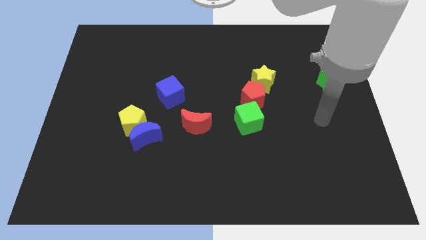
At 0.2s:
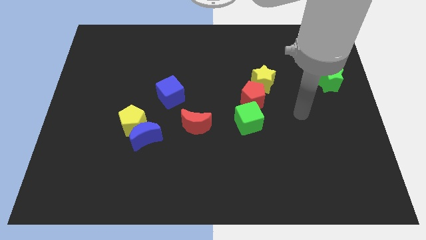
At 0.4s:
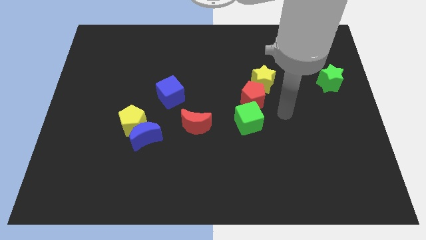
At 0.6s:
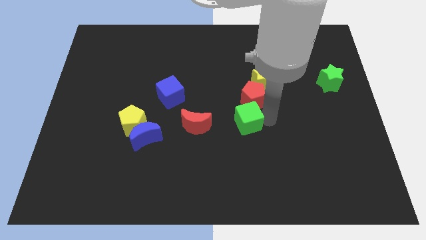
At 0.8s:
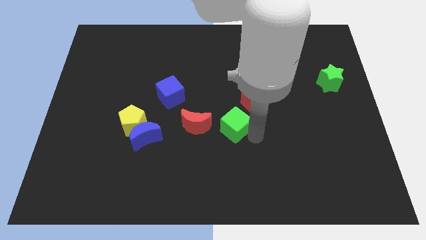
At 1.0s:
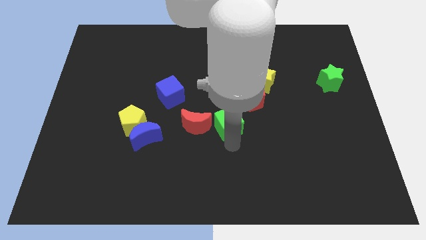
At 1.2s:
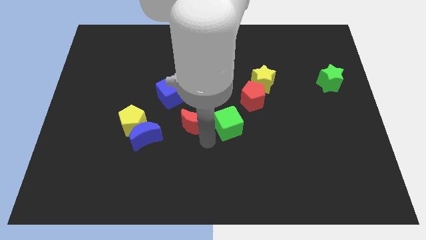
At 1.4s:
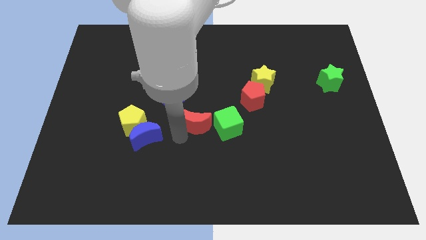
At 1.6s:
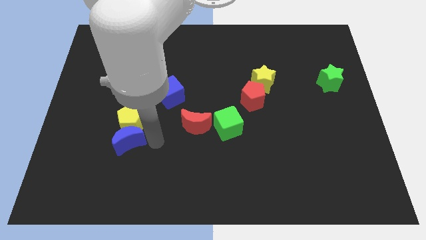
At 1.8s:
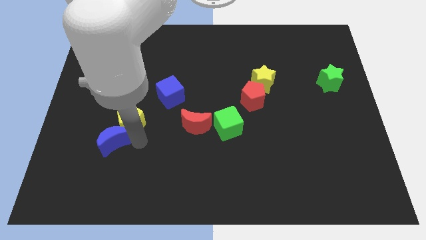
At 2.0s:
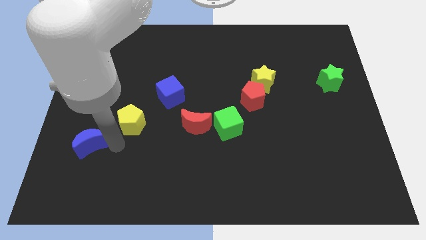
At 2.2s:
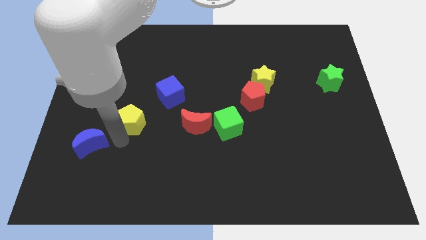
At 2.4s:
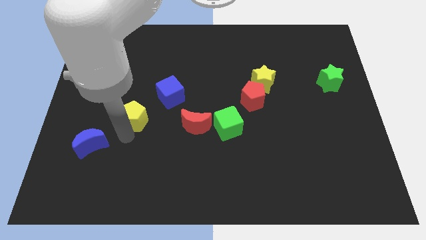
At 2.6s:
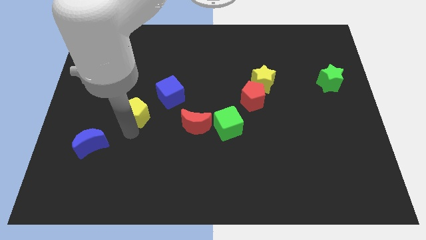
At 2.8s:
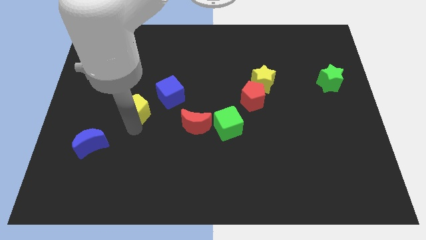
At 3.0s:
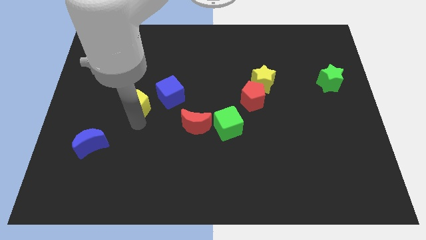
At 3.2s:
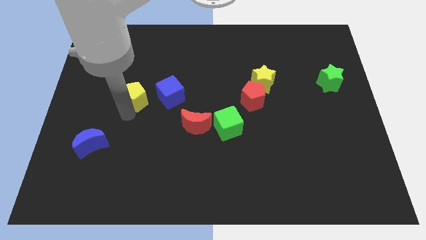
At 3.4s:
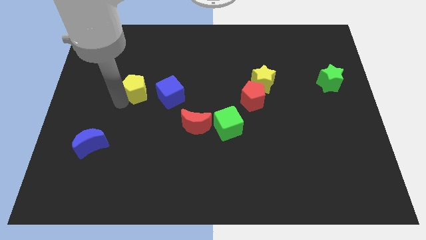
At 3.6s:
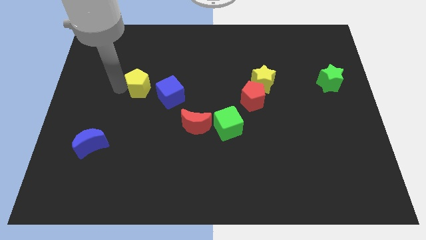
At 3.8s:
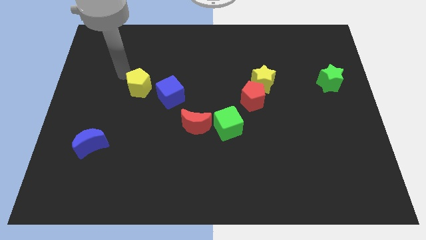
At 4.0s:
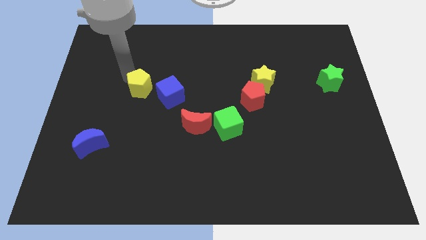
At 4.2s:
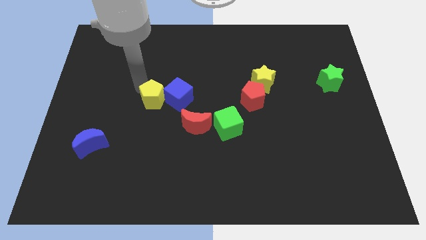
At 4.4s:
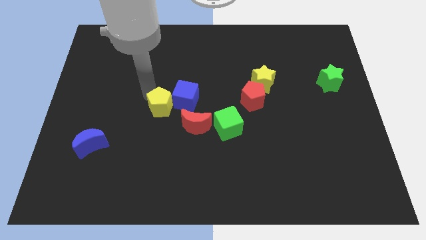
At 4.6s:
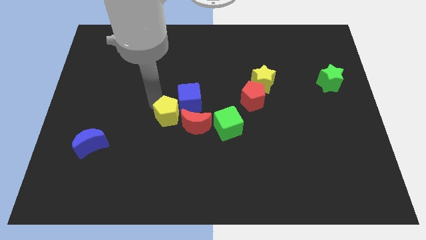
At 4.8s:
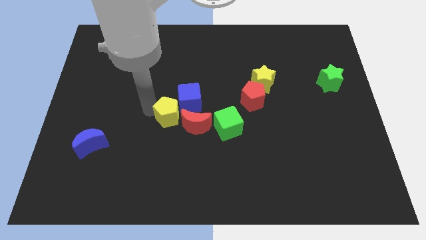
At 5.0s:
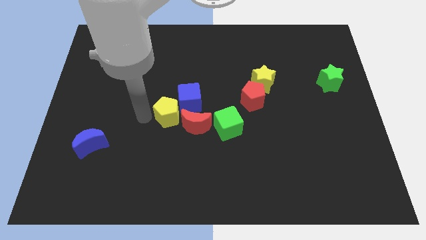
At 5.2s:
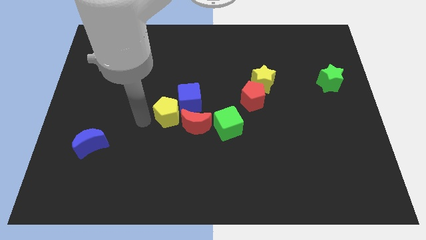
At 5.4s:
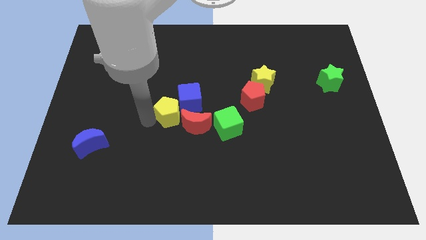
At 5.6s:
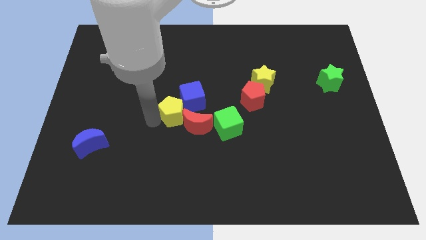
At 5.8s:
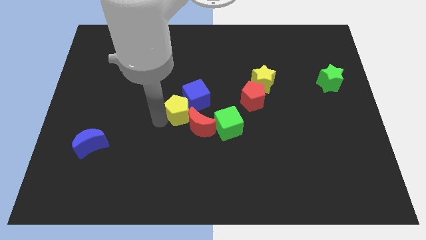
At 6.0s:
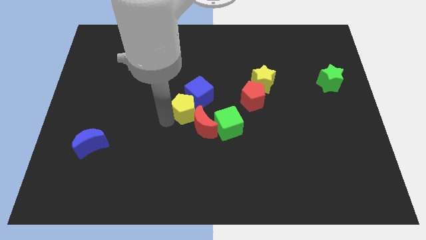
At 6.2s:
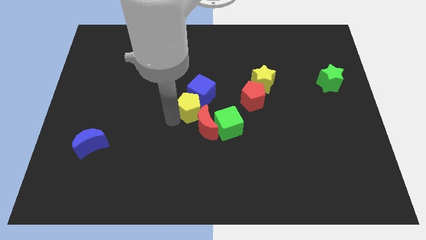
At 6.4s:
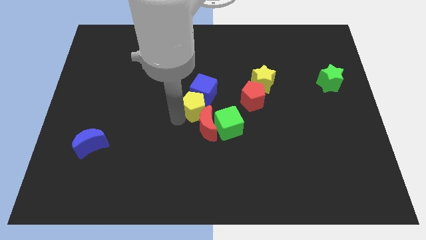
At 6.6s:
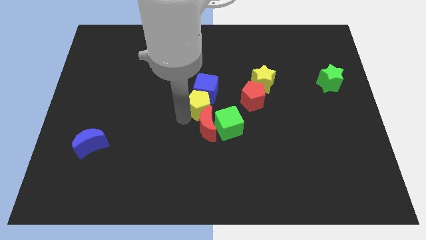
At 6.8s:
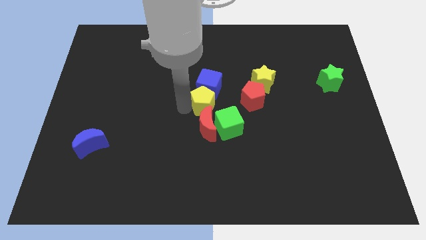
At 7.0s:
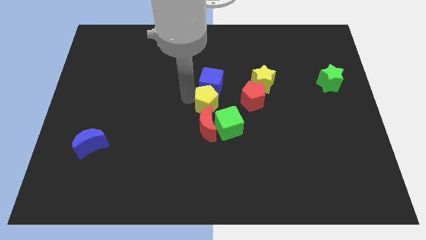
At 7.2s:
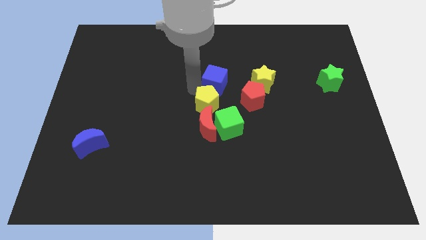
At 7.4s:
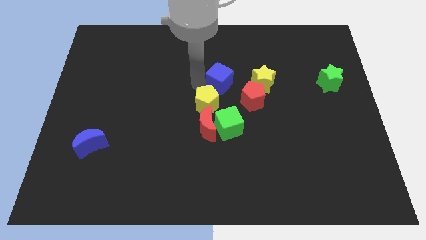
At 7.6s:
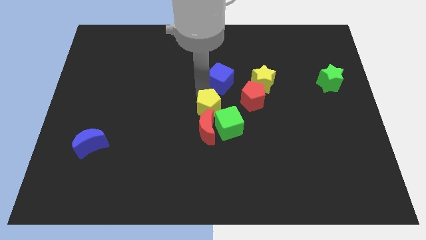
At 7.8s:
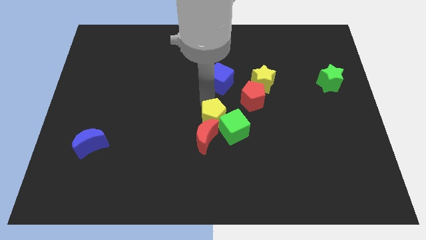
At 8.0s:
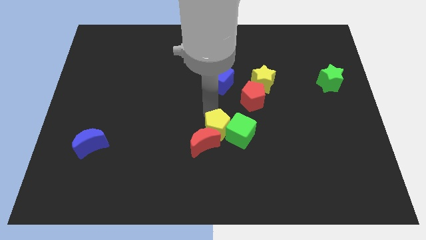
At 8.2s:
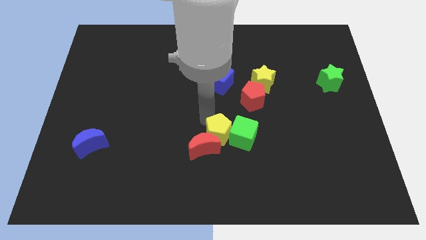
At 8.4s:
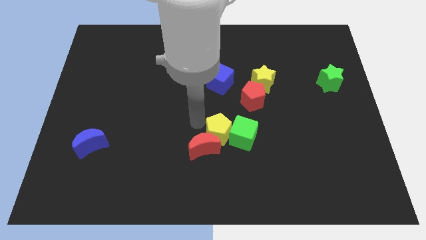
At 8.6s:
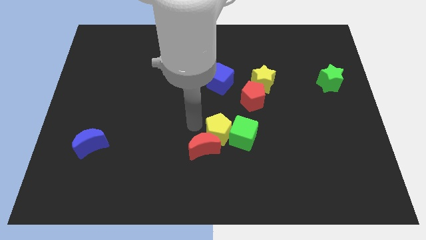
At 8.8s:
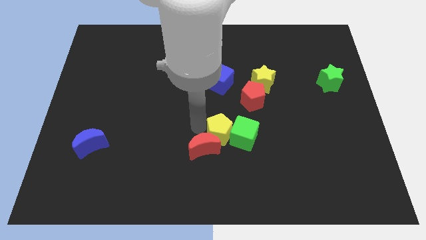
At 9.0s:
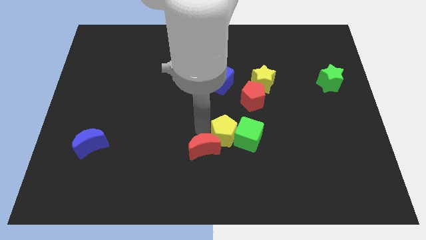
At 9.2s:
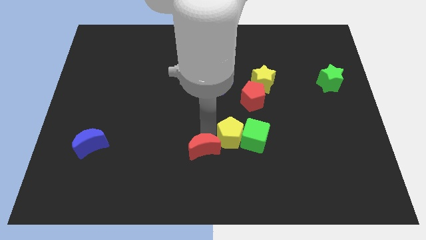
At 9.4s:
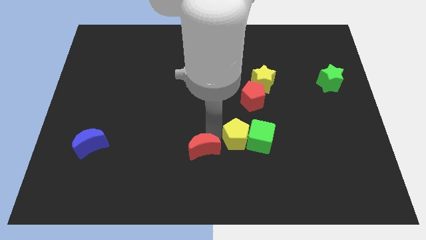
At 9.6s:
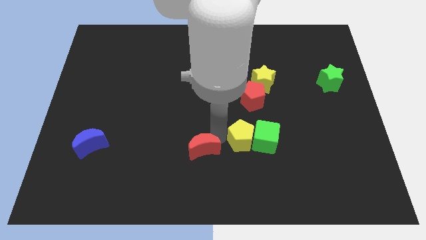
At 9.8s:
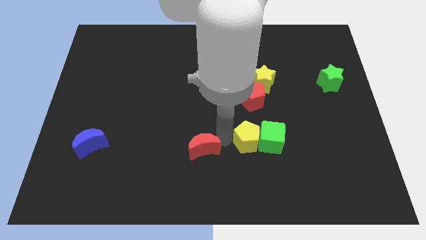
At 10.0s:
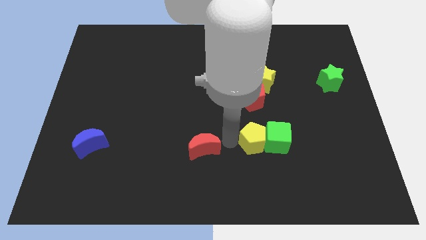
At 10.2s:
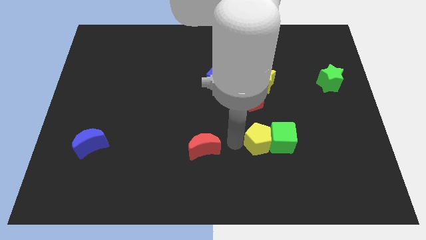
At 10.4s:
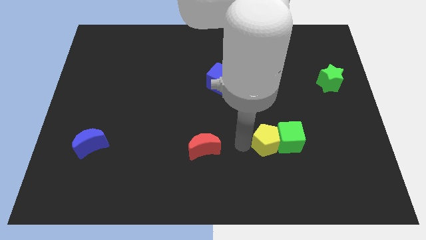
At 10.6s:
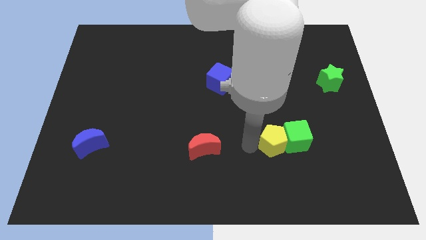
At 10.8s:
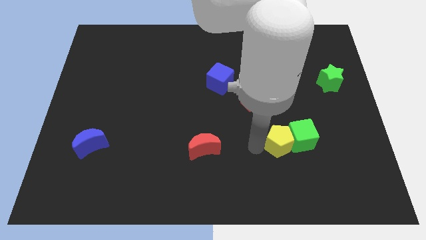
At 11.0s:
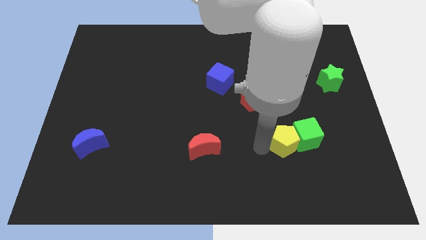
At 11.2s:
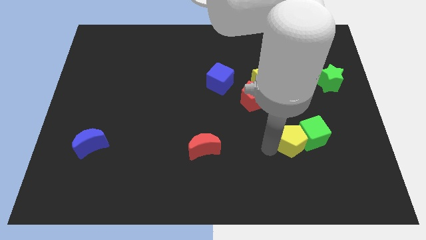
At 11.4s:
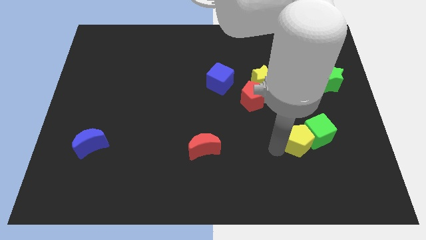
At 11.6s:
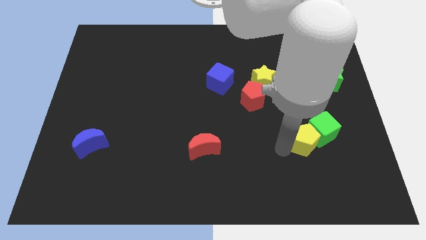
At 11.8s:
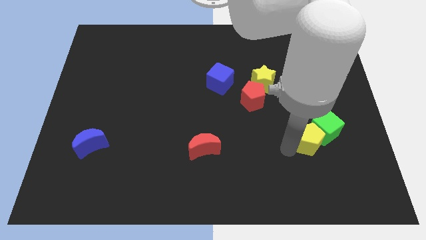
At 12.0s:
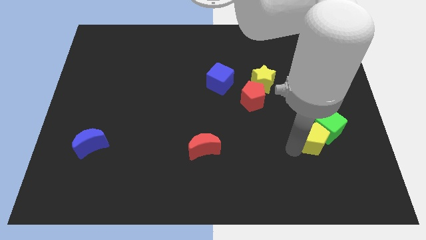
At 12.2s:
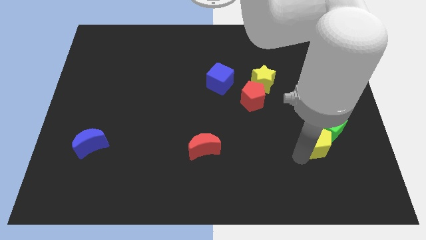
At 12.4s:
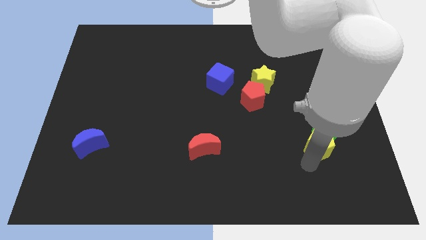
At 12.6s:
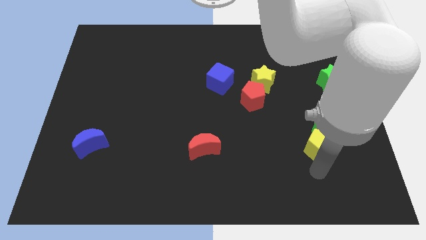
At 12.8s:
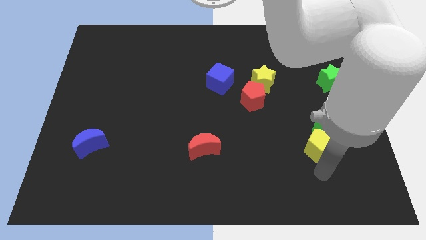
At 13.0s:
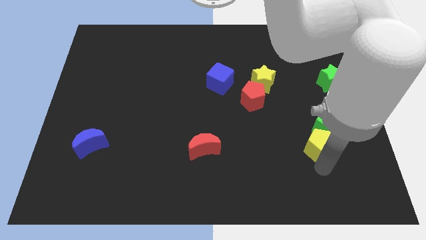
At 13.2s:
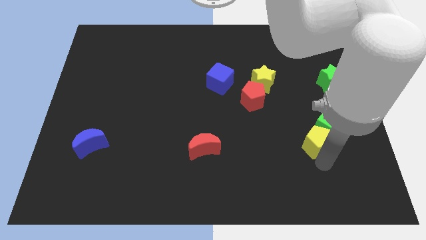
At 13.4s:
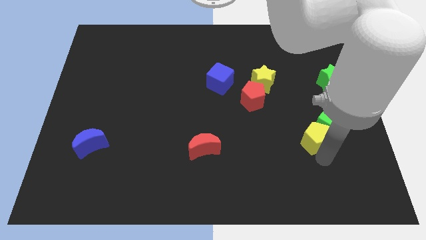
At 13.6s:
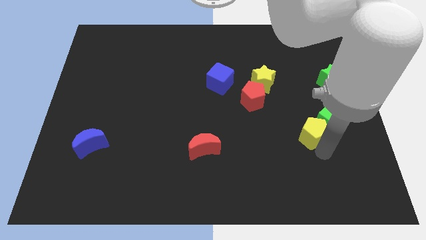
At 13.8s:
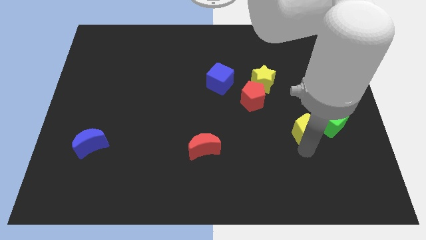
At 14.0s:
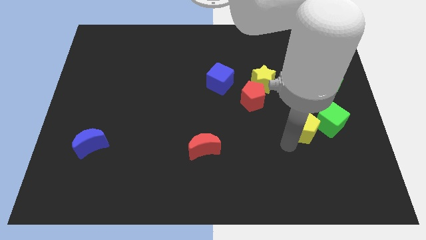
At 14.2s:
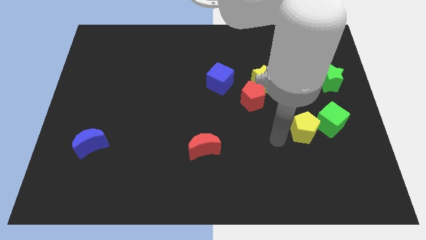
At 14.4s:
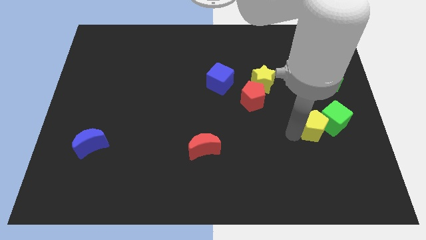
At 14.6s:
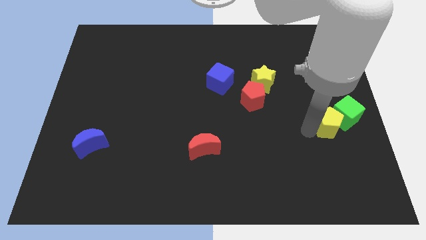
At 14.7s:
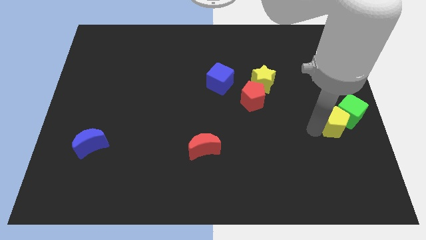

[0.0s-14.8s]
slide the yellow pentagon to the right side of the board
